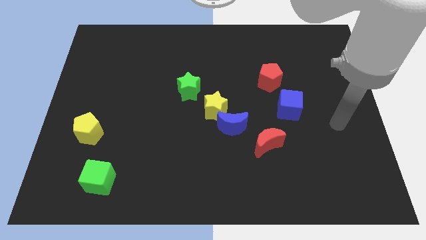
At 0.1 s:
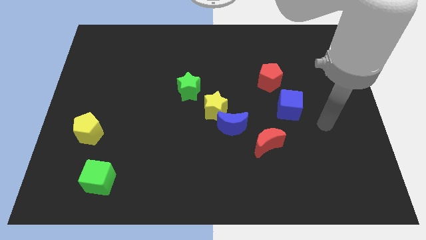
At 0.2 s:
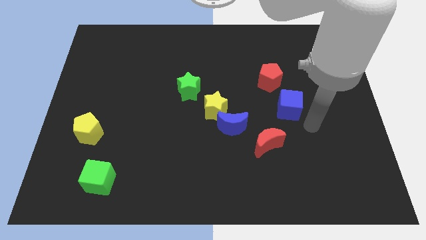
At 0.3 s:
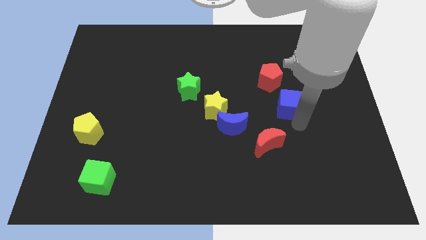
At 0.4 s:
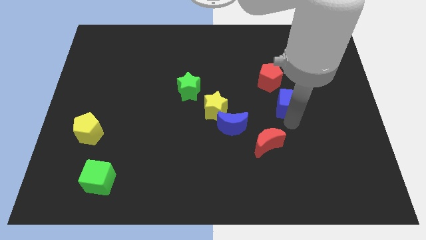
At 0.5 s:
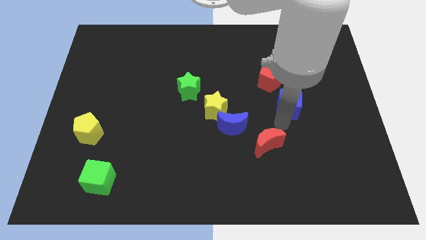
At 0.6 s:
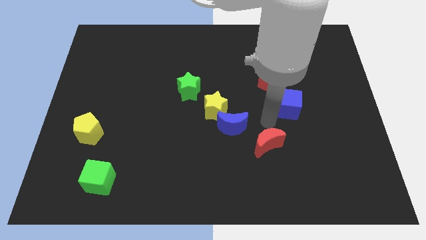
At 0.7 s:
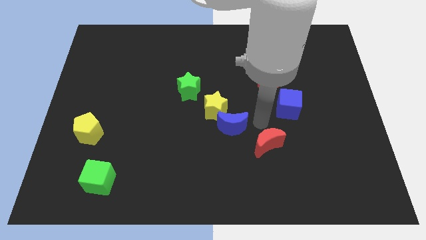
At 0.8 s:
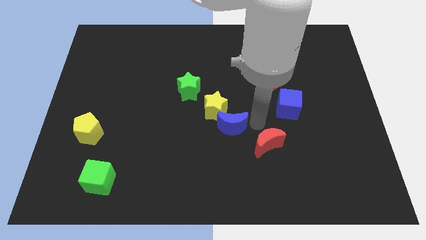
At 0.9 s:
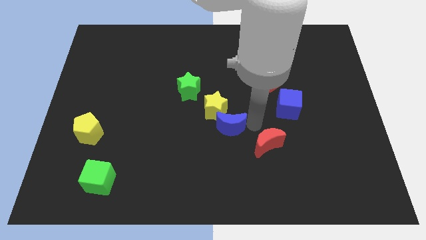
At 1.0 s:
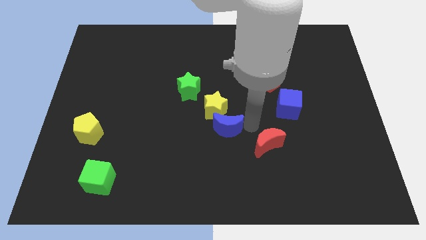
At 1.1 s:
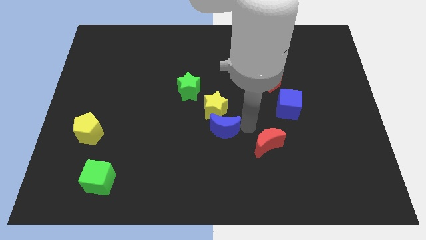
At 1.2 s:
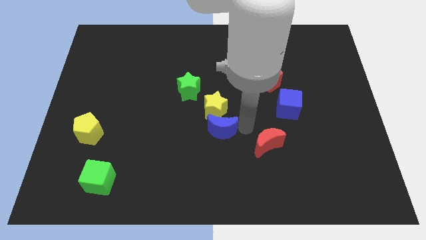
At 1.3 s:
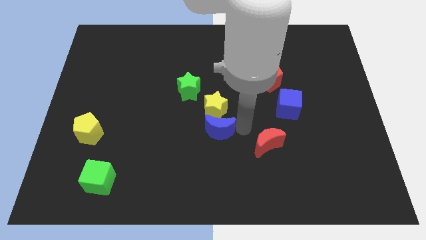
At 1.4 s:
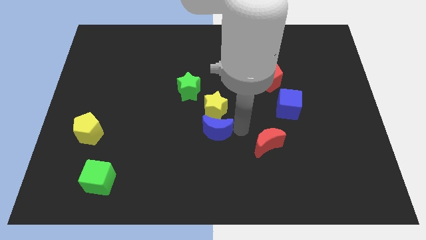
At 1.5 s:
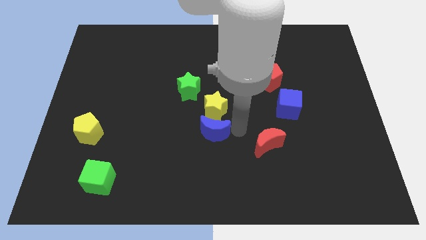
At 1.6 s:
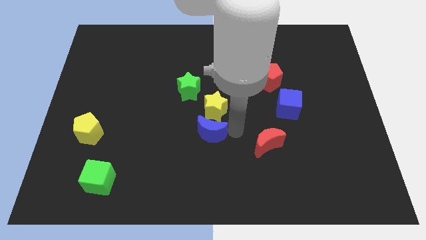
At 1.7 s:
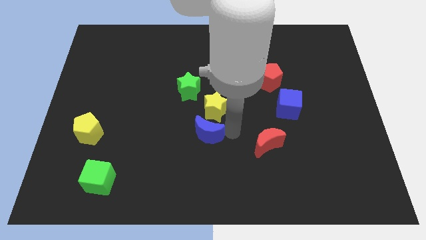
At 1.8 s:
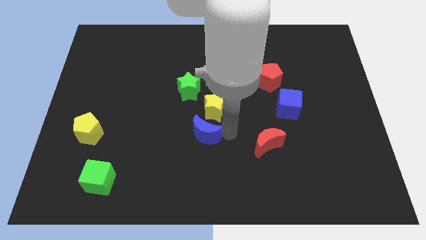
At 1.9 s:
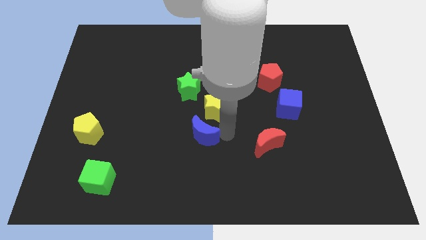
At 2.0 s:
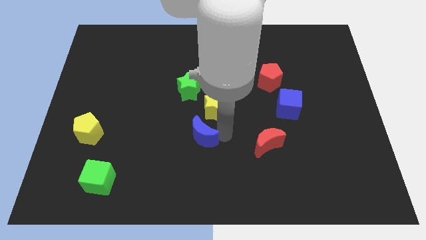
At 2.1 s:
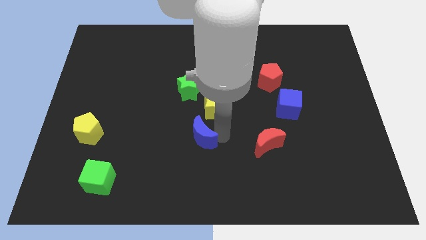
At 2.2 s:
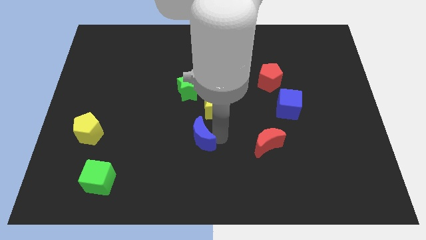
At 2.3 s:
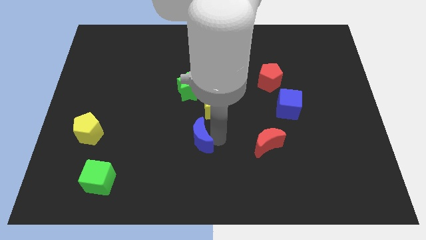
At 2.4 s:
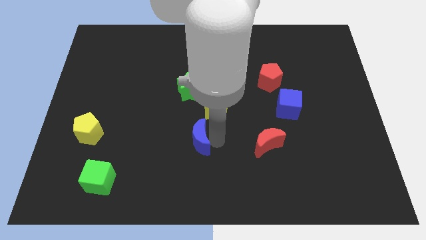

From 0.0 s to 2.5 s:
move the blue moon away from the yellow star and red moon

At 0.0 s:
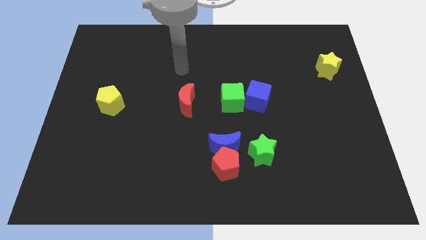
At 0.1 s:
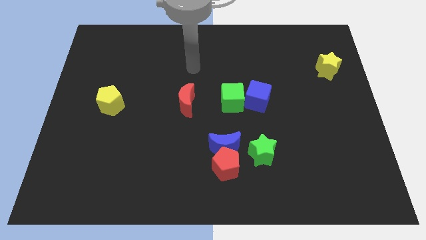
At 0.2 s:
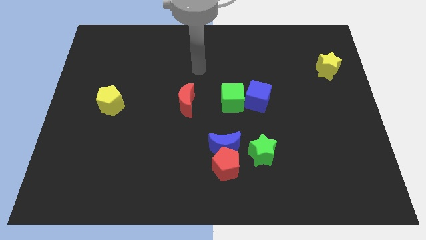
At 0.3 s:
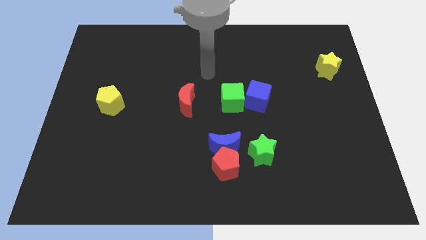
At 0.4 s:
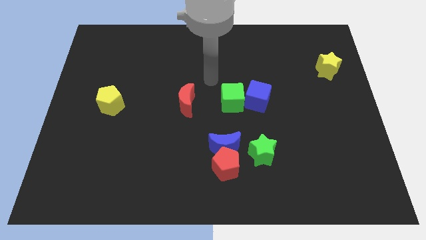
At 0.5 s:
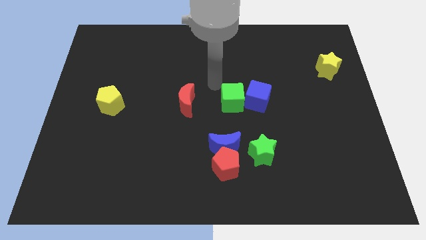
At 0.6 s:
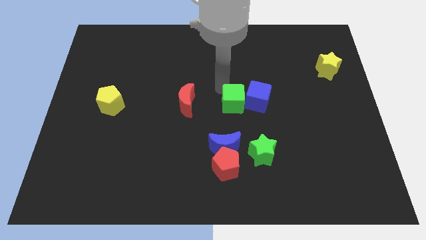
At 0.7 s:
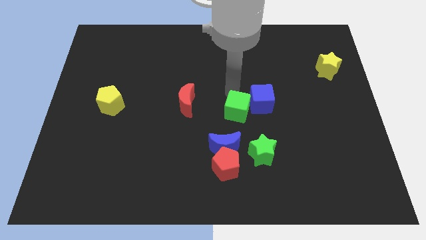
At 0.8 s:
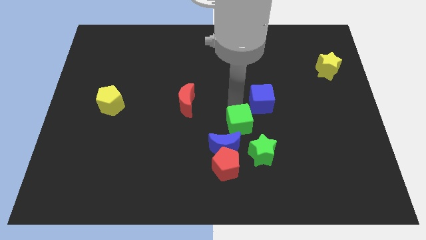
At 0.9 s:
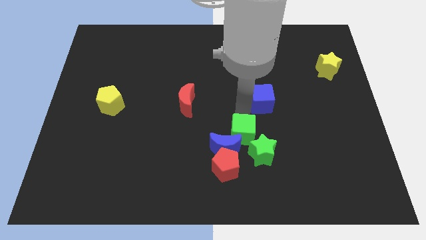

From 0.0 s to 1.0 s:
pull the blue cube apart from the green cube

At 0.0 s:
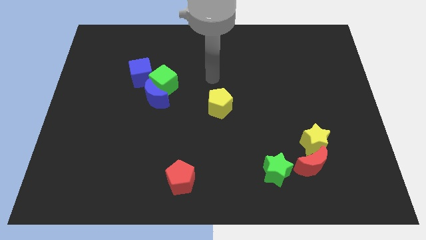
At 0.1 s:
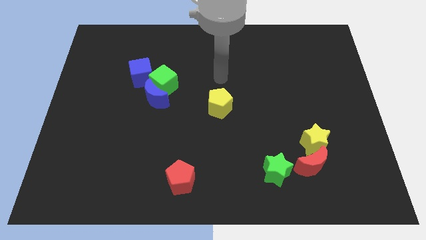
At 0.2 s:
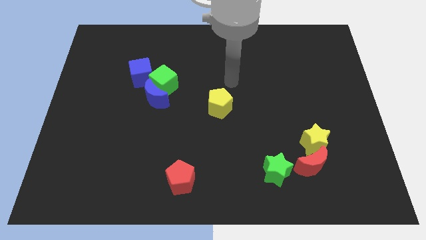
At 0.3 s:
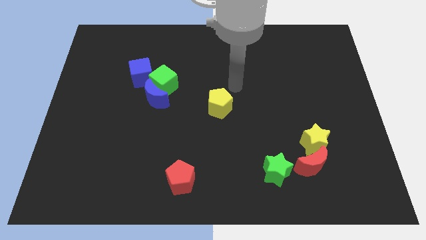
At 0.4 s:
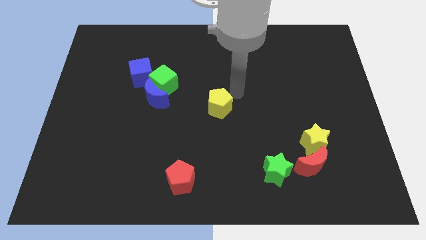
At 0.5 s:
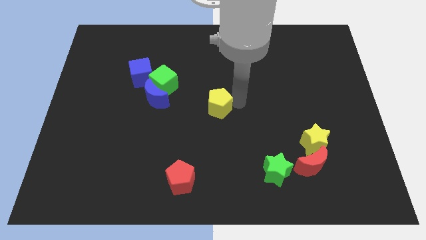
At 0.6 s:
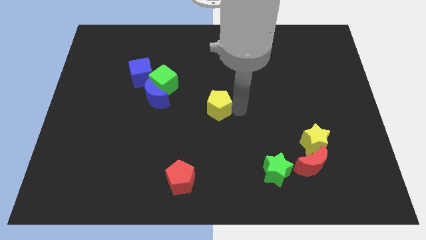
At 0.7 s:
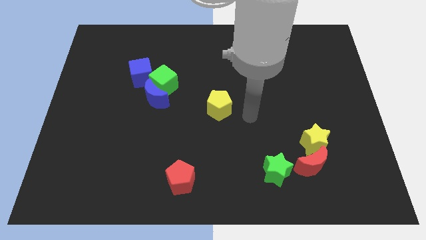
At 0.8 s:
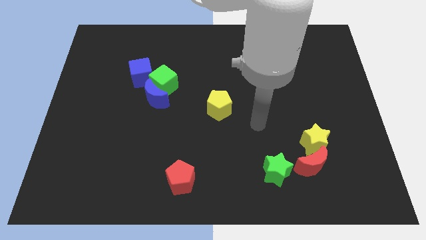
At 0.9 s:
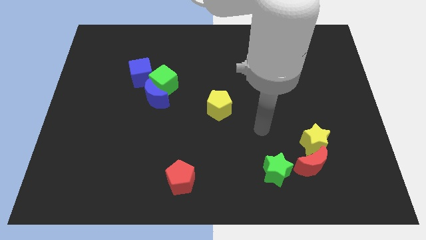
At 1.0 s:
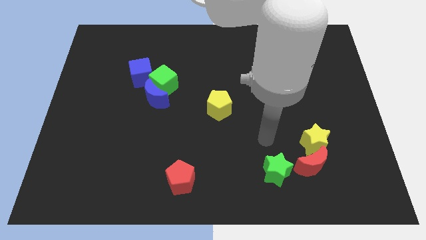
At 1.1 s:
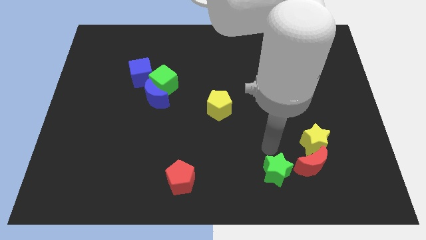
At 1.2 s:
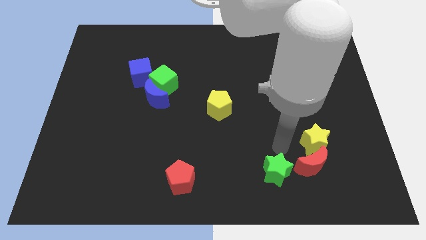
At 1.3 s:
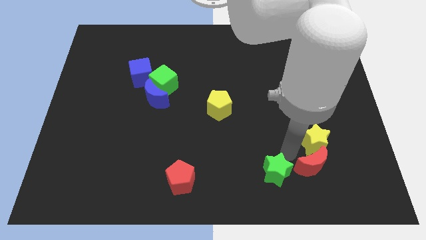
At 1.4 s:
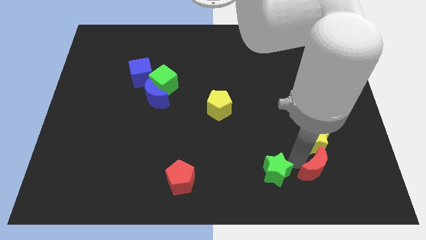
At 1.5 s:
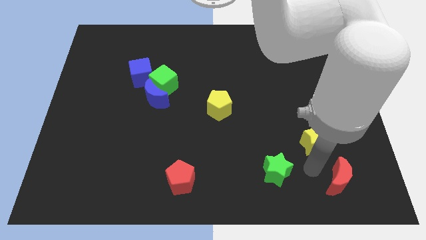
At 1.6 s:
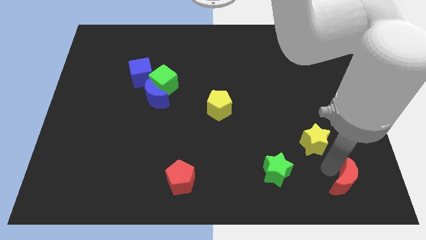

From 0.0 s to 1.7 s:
separate the yellow star from the red moon

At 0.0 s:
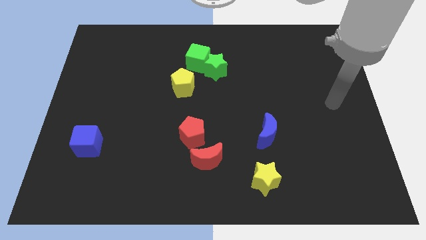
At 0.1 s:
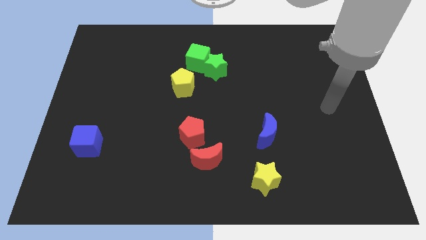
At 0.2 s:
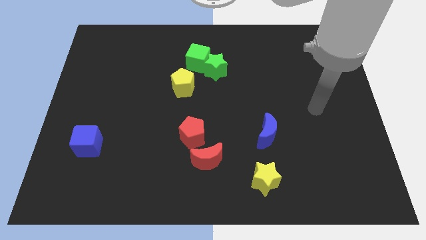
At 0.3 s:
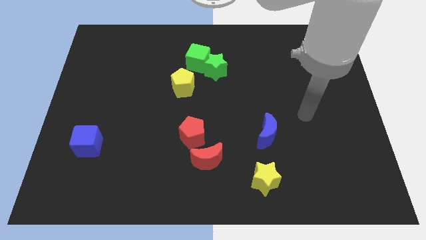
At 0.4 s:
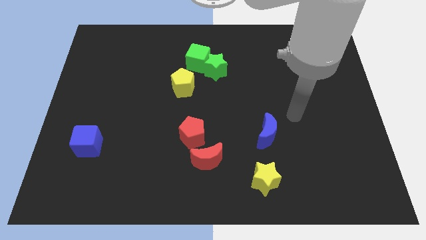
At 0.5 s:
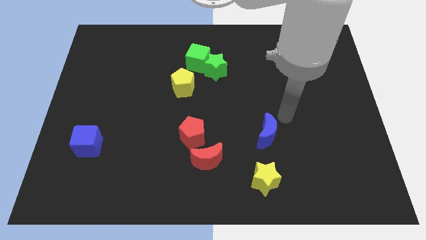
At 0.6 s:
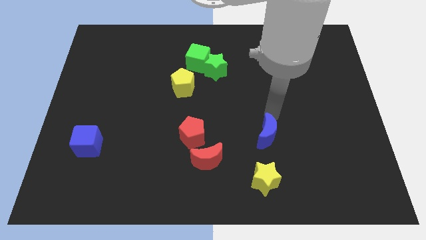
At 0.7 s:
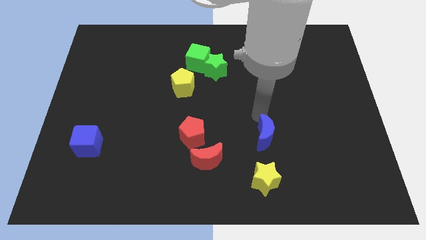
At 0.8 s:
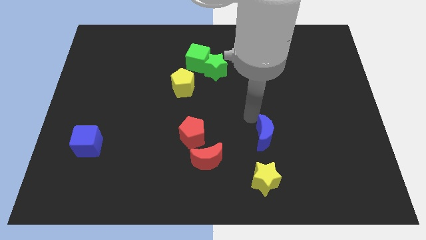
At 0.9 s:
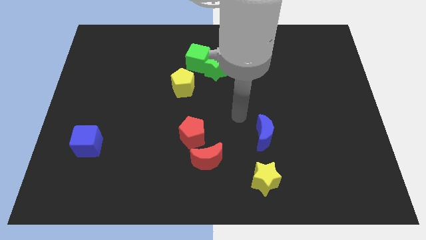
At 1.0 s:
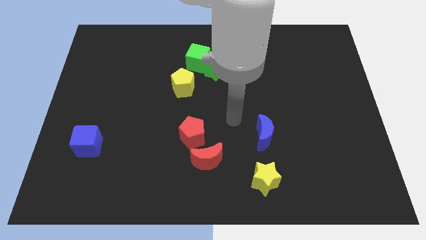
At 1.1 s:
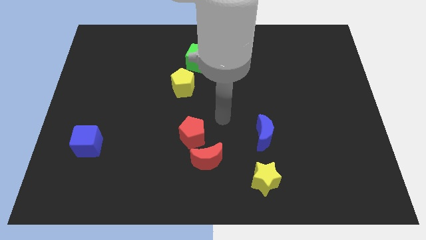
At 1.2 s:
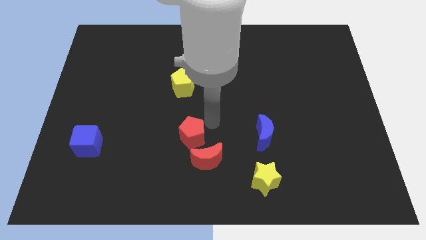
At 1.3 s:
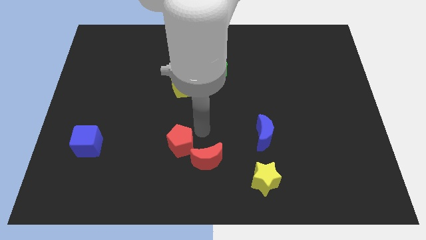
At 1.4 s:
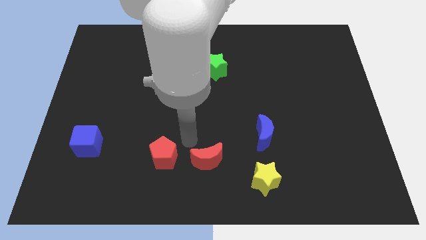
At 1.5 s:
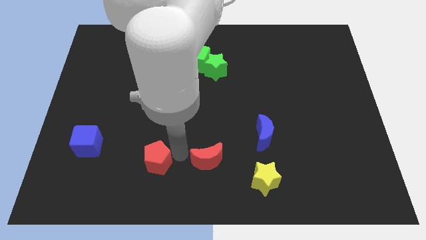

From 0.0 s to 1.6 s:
separate the red moon from the red pentagon

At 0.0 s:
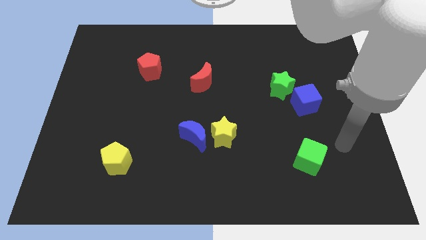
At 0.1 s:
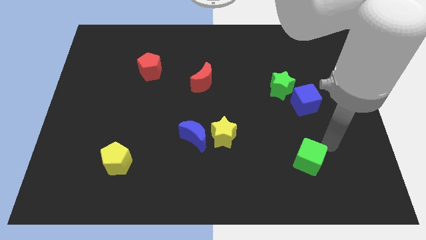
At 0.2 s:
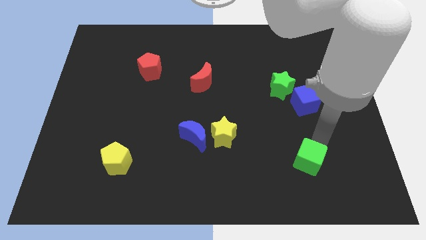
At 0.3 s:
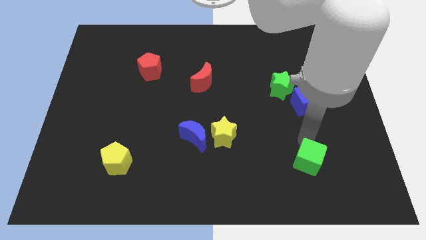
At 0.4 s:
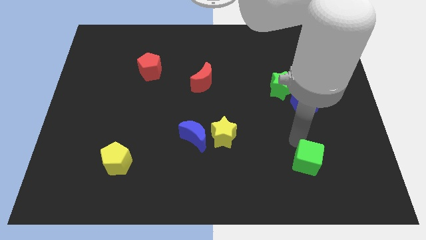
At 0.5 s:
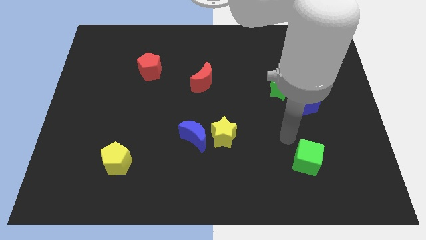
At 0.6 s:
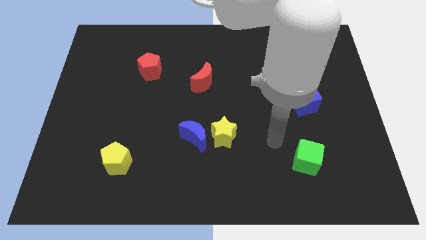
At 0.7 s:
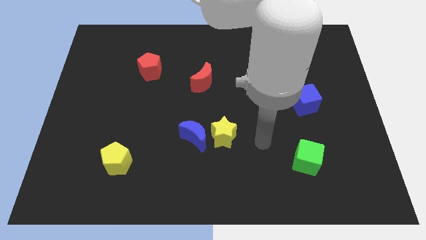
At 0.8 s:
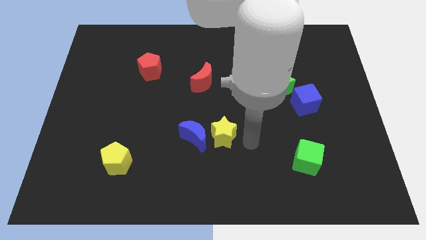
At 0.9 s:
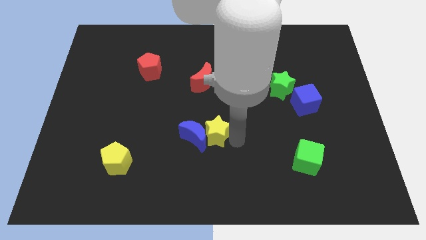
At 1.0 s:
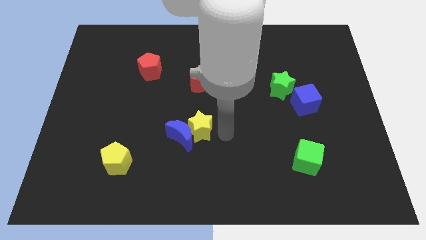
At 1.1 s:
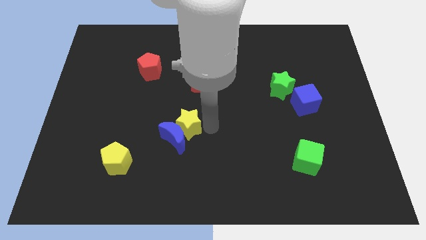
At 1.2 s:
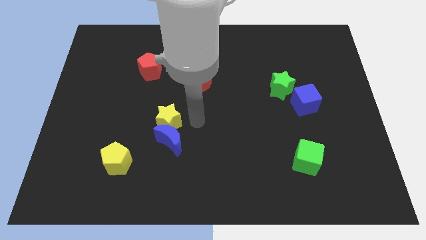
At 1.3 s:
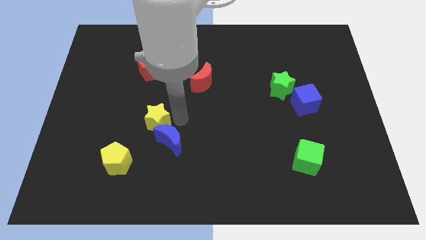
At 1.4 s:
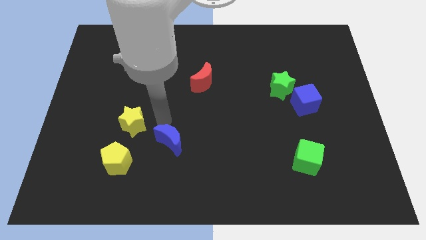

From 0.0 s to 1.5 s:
separate the blue moon from the yellow star

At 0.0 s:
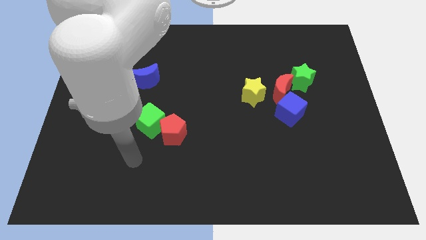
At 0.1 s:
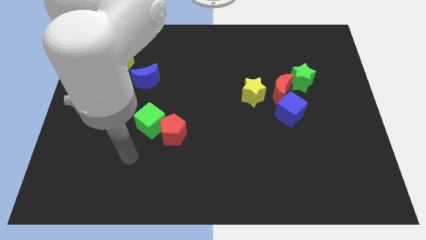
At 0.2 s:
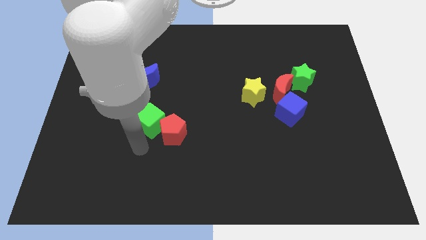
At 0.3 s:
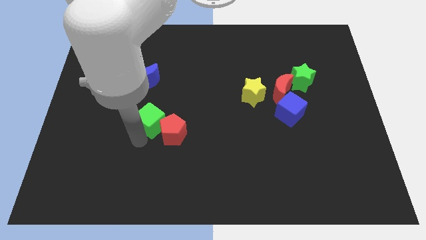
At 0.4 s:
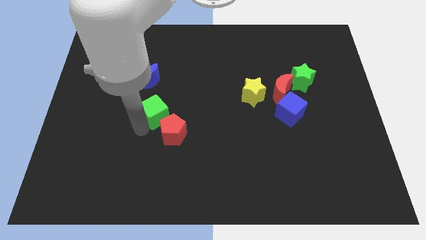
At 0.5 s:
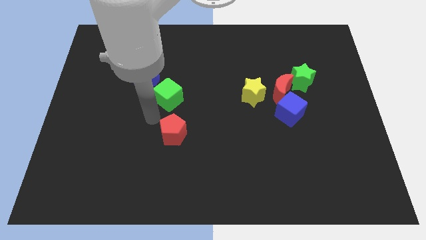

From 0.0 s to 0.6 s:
separate the red pentagon from the green cube

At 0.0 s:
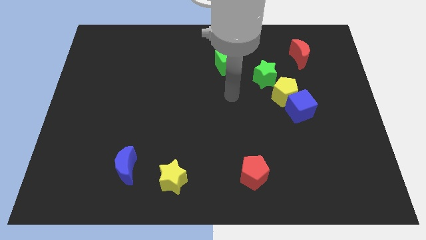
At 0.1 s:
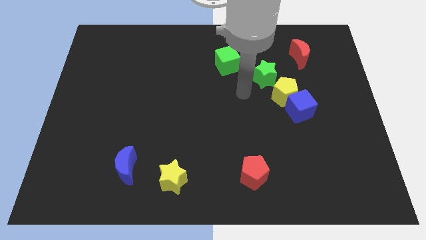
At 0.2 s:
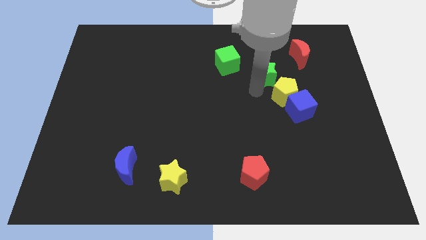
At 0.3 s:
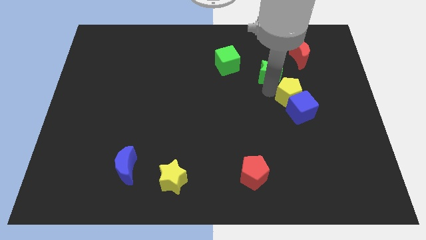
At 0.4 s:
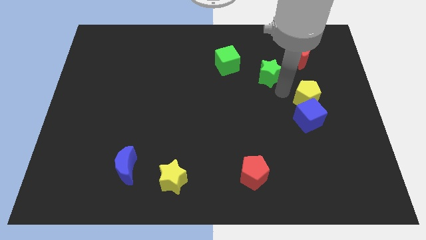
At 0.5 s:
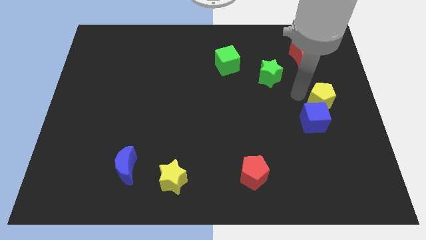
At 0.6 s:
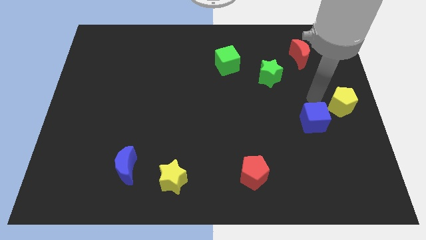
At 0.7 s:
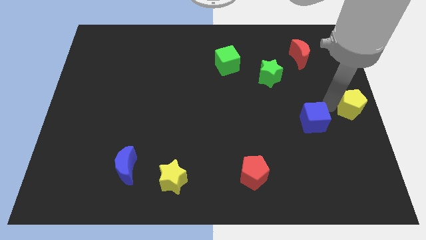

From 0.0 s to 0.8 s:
separate the blue cube from the yellow pentagon
